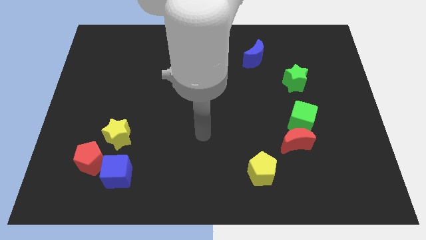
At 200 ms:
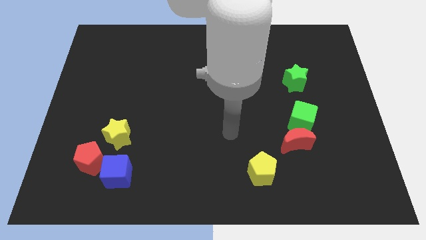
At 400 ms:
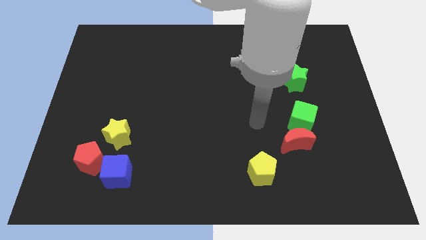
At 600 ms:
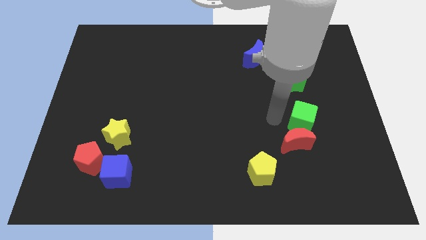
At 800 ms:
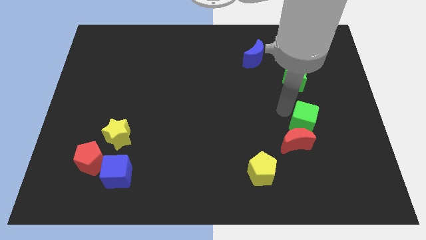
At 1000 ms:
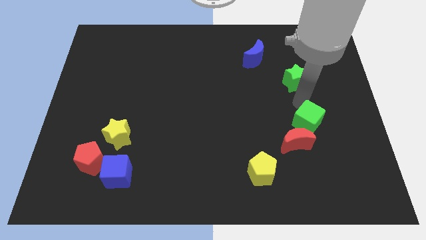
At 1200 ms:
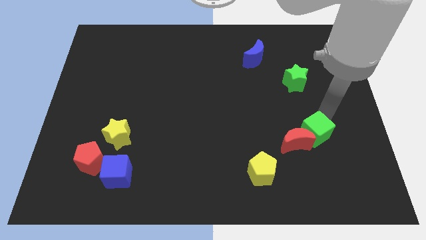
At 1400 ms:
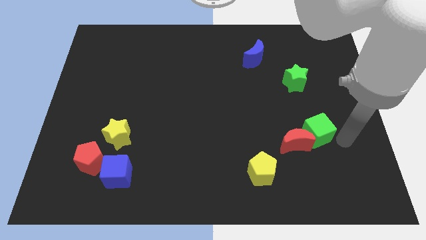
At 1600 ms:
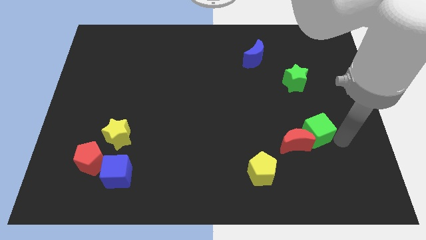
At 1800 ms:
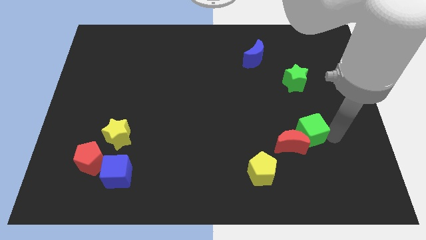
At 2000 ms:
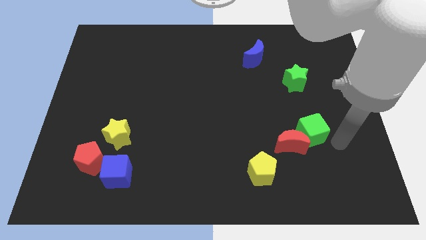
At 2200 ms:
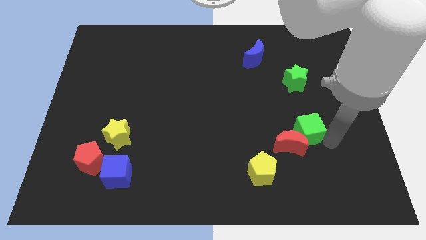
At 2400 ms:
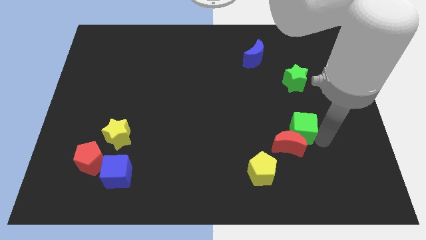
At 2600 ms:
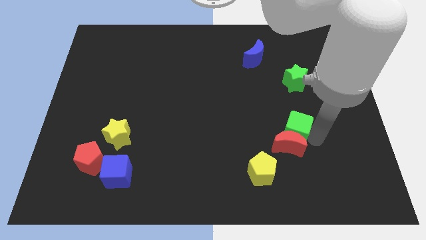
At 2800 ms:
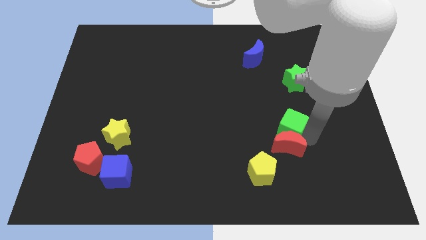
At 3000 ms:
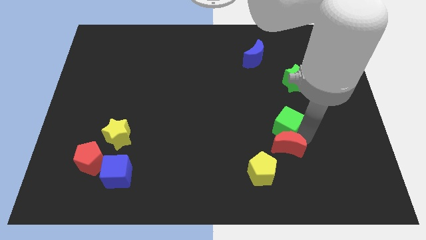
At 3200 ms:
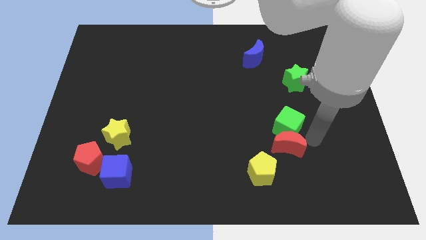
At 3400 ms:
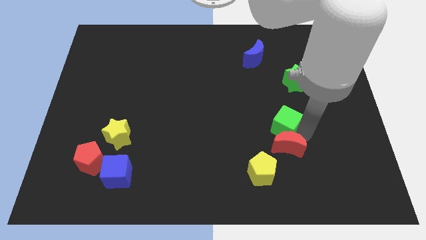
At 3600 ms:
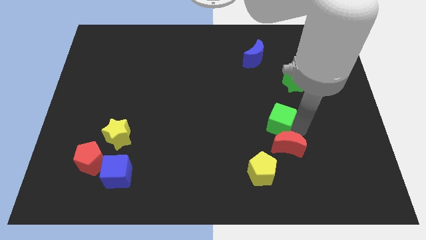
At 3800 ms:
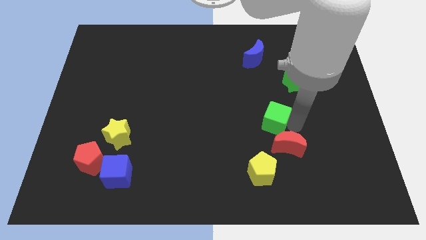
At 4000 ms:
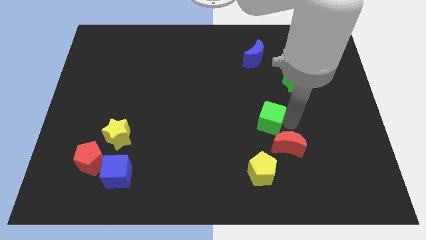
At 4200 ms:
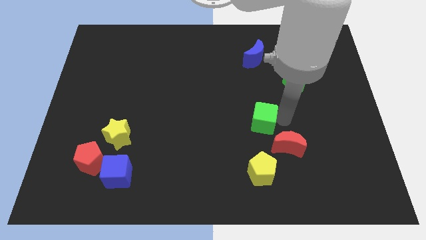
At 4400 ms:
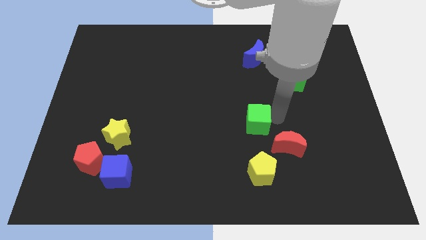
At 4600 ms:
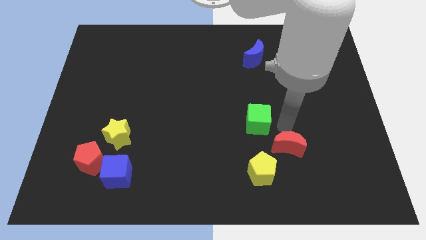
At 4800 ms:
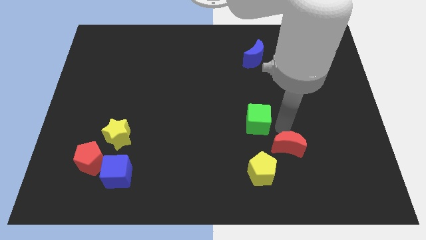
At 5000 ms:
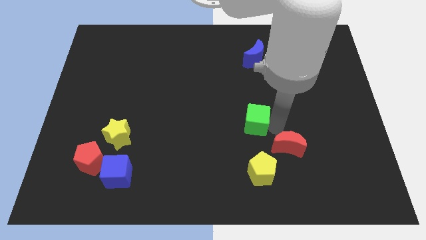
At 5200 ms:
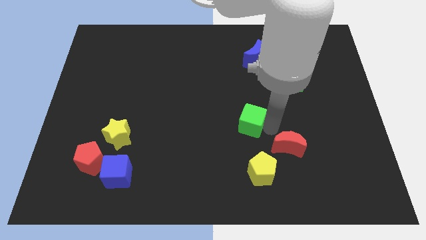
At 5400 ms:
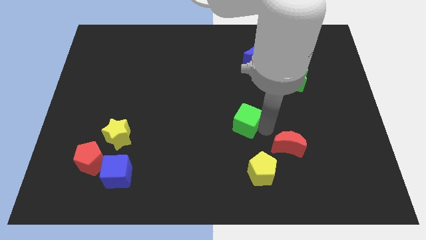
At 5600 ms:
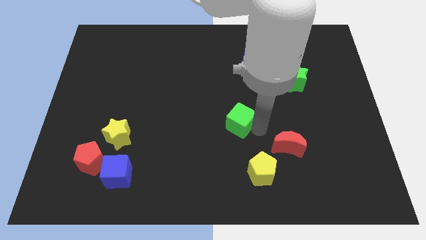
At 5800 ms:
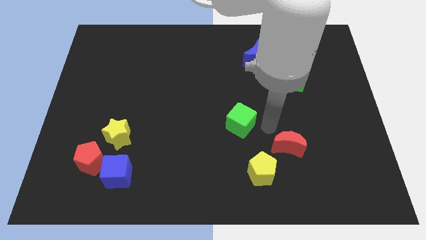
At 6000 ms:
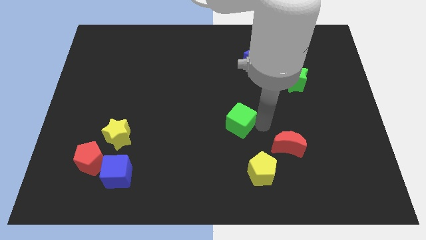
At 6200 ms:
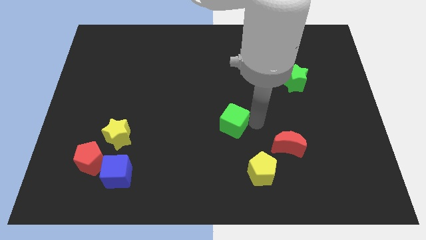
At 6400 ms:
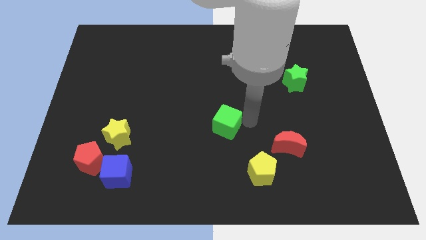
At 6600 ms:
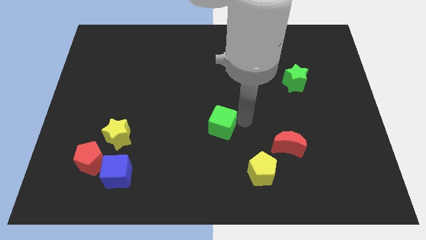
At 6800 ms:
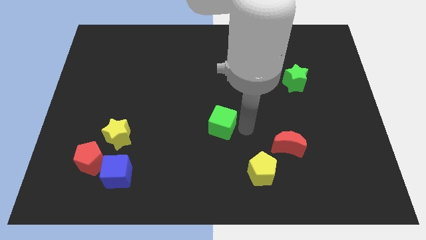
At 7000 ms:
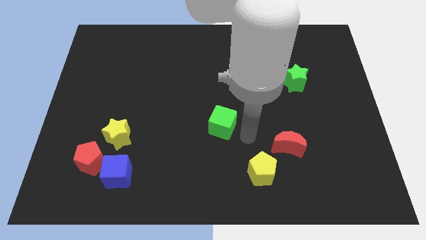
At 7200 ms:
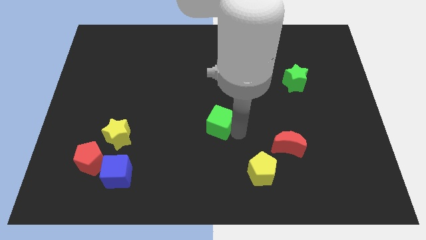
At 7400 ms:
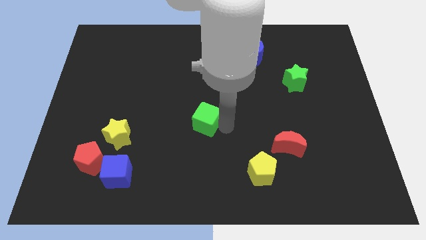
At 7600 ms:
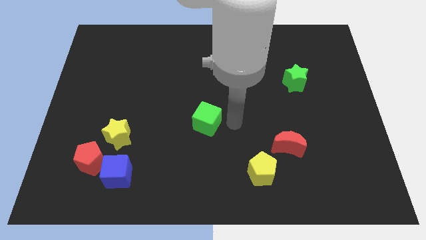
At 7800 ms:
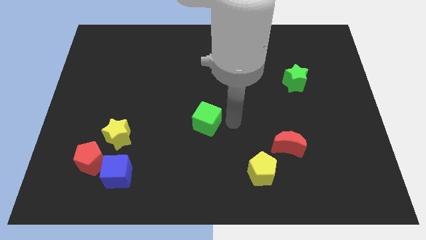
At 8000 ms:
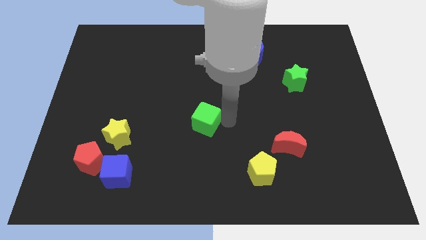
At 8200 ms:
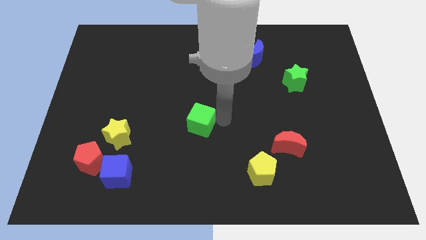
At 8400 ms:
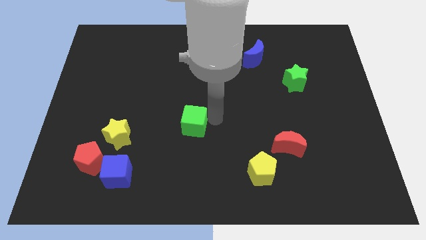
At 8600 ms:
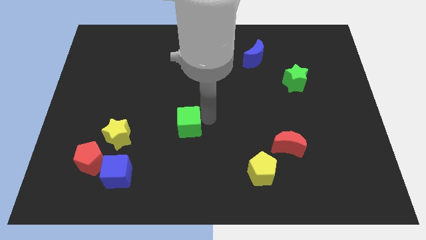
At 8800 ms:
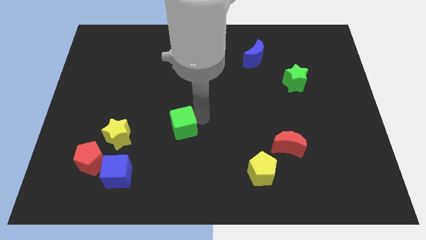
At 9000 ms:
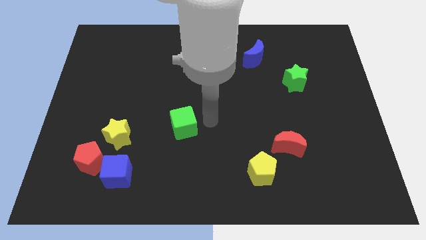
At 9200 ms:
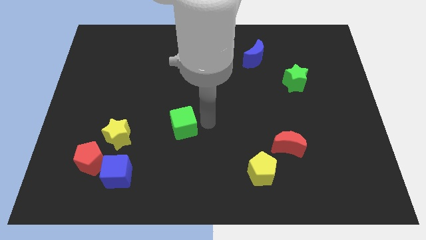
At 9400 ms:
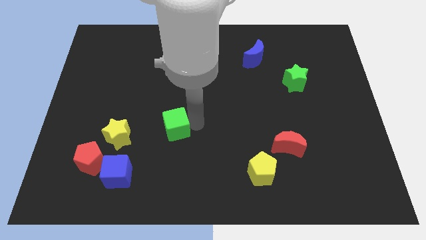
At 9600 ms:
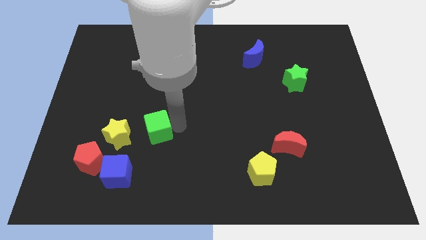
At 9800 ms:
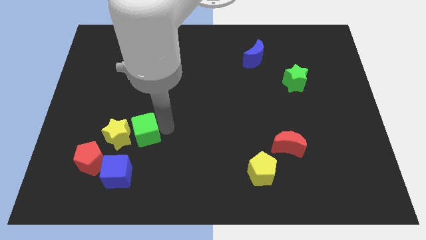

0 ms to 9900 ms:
move the green cube close to the yellow star

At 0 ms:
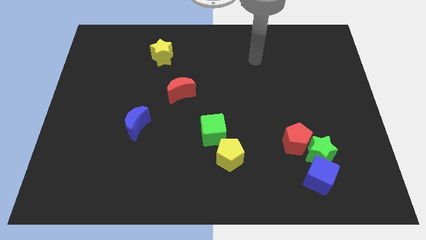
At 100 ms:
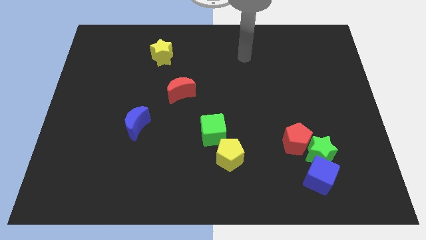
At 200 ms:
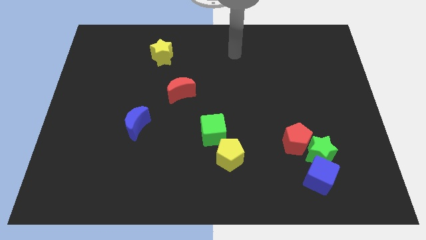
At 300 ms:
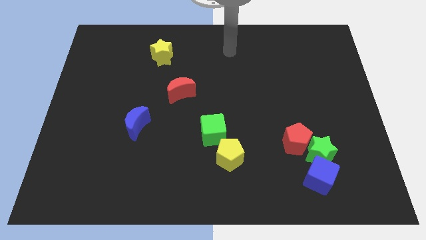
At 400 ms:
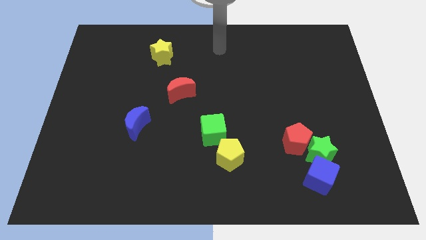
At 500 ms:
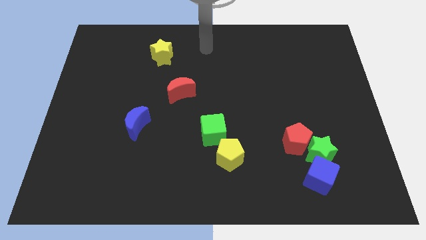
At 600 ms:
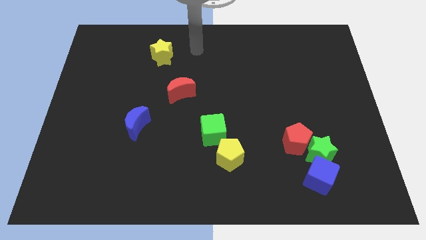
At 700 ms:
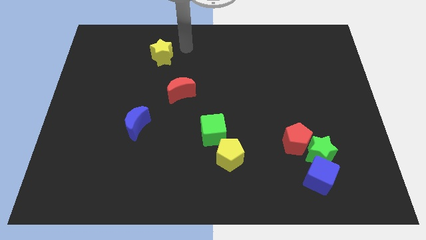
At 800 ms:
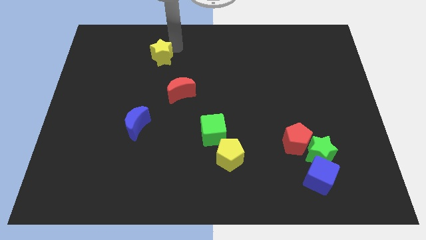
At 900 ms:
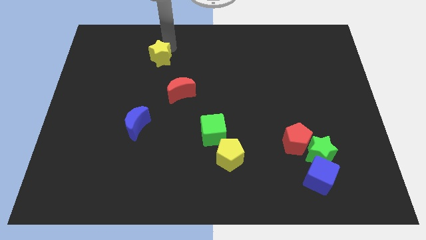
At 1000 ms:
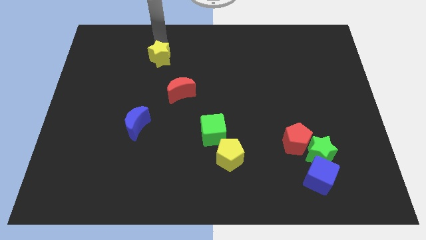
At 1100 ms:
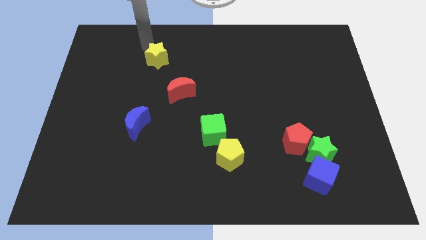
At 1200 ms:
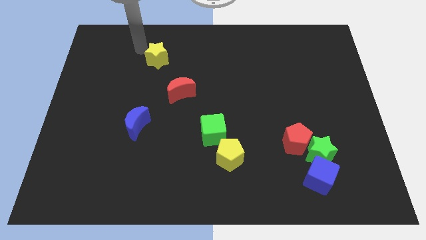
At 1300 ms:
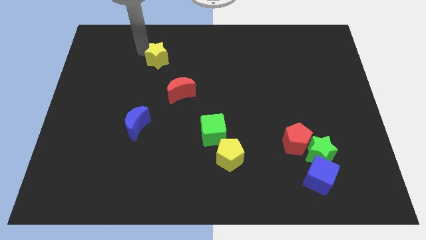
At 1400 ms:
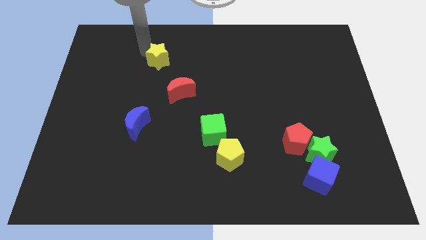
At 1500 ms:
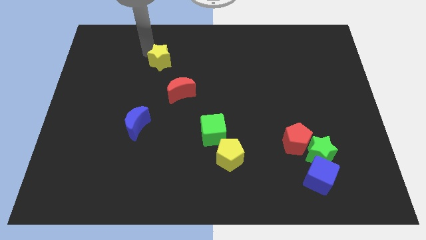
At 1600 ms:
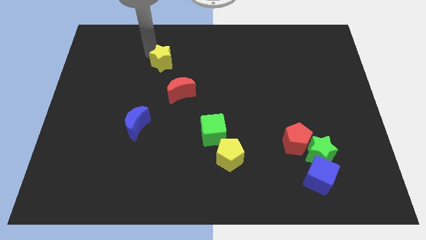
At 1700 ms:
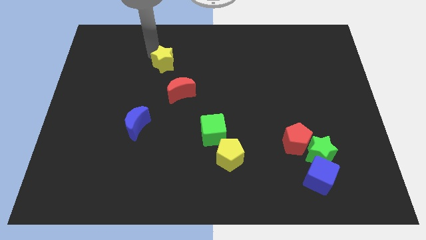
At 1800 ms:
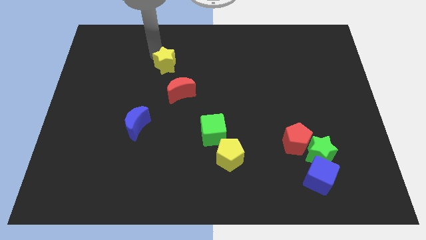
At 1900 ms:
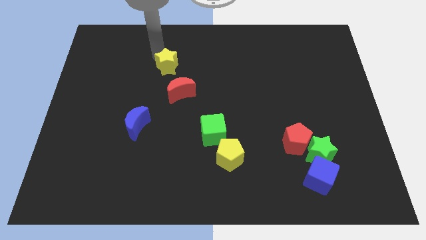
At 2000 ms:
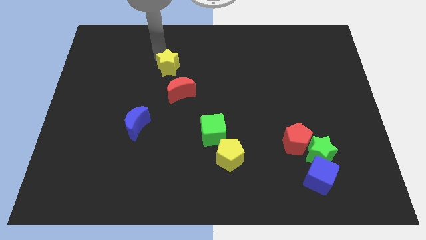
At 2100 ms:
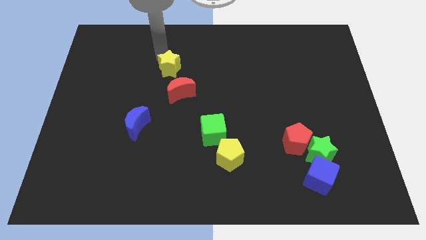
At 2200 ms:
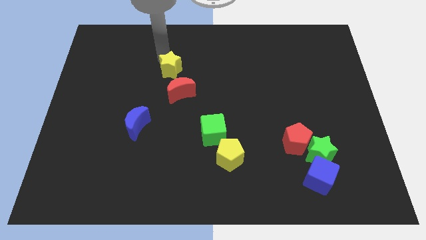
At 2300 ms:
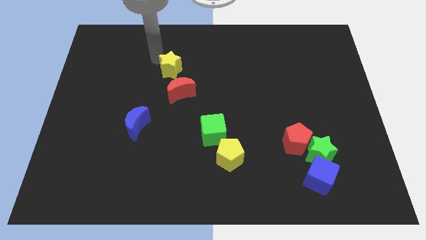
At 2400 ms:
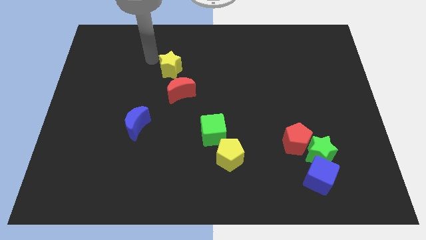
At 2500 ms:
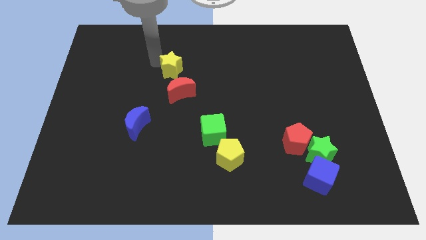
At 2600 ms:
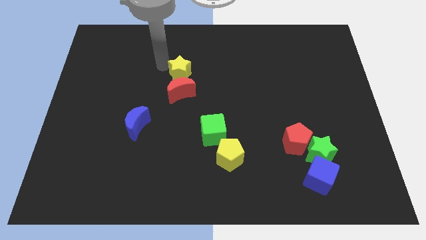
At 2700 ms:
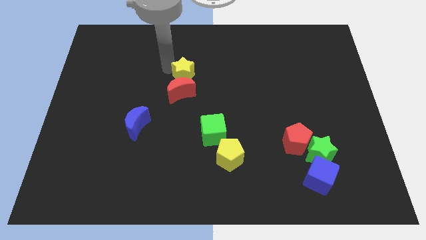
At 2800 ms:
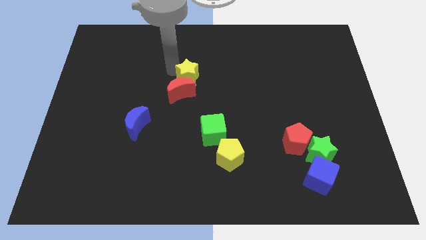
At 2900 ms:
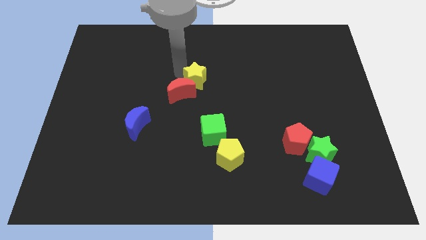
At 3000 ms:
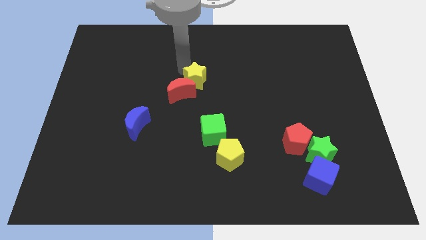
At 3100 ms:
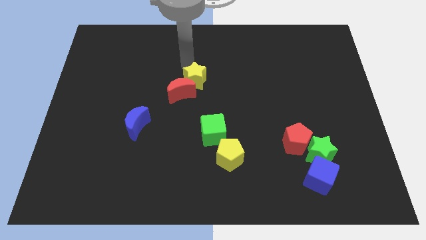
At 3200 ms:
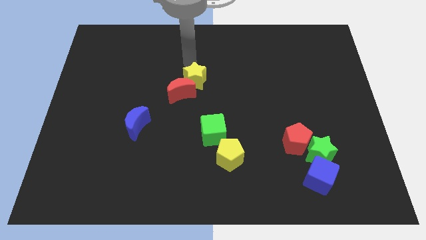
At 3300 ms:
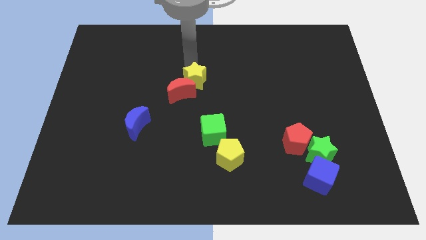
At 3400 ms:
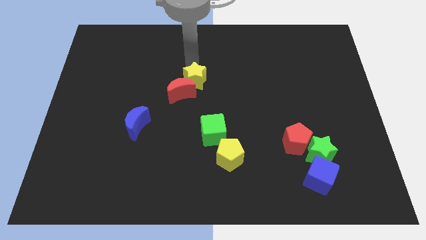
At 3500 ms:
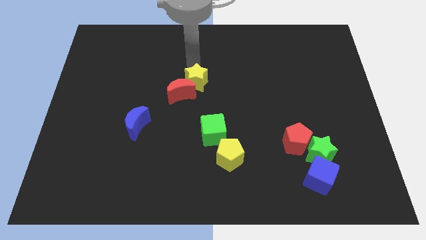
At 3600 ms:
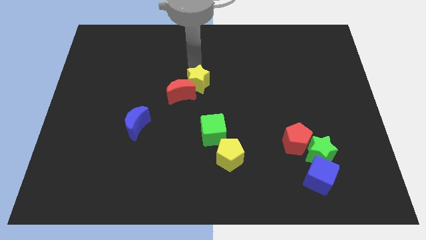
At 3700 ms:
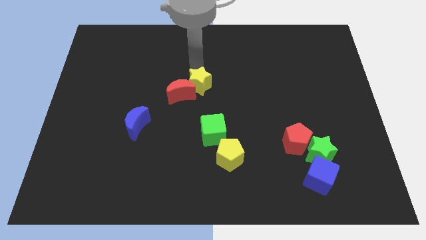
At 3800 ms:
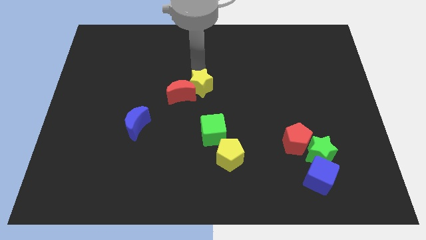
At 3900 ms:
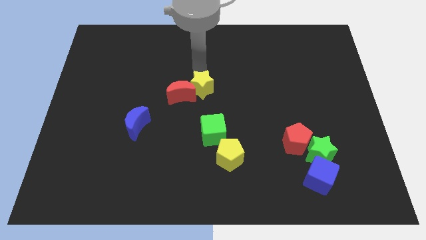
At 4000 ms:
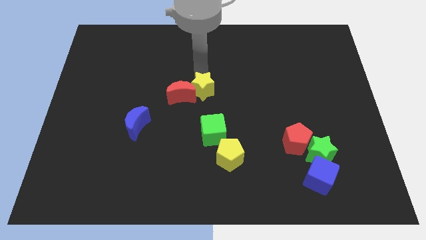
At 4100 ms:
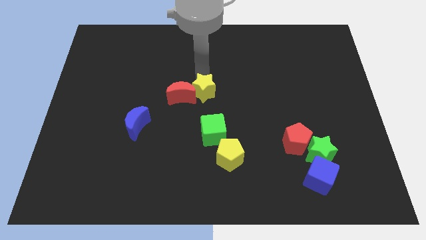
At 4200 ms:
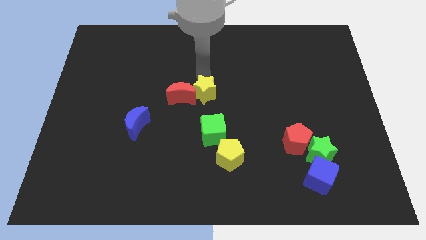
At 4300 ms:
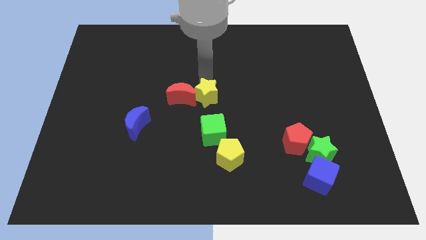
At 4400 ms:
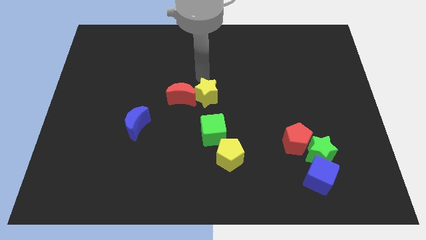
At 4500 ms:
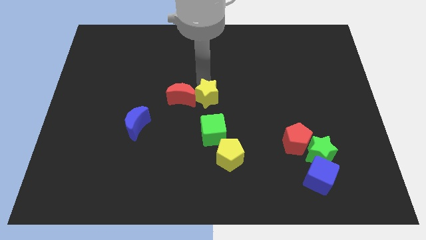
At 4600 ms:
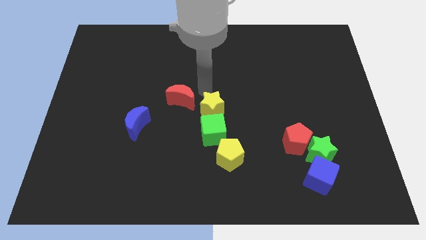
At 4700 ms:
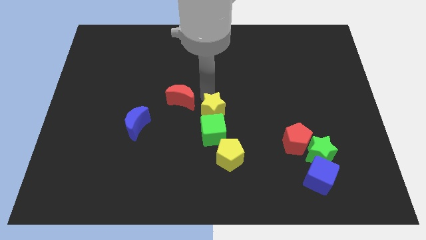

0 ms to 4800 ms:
slide the yellow star close to the green cube
